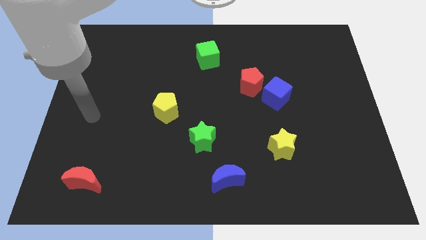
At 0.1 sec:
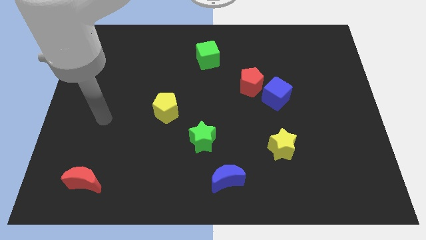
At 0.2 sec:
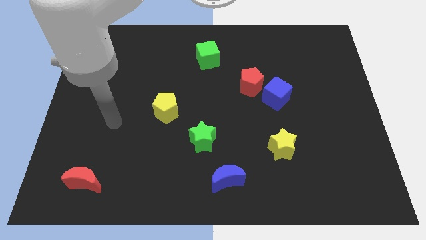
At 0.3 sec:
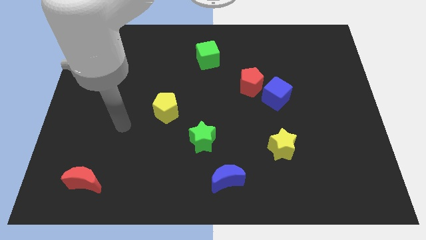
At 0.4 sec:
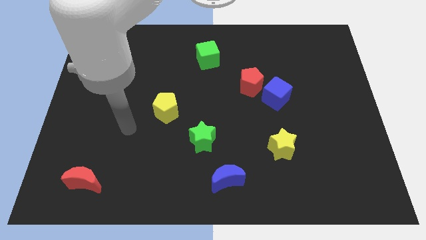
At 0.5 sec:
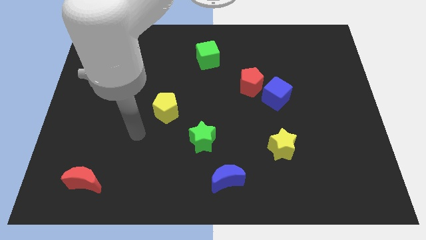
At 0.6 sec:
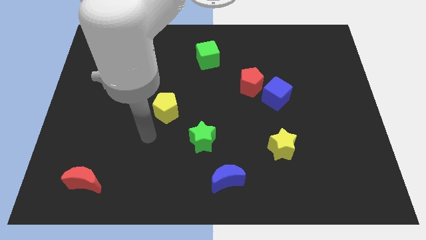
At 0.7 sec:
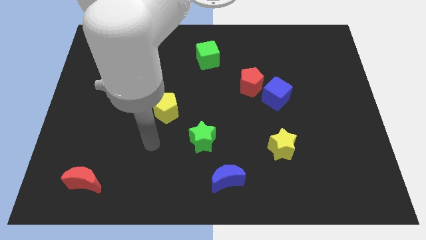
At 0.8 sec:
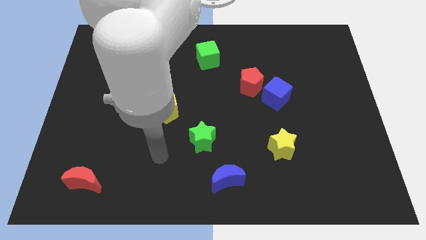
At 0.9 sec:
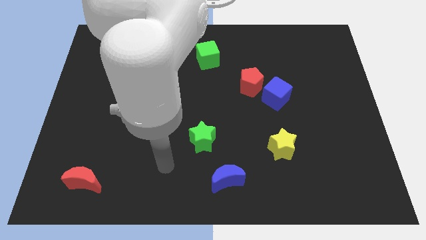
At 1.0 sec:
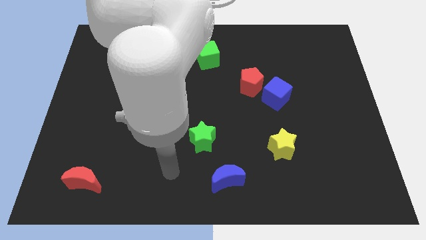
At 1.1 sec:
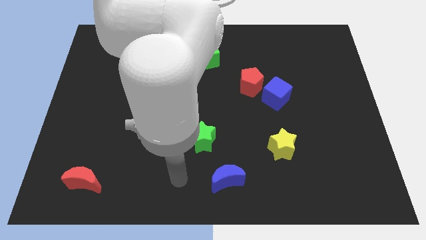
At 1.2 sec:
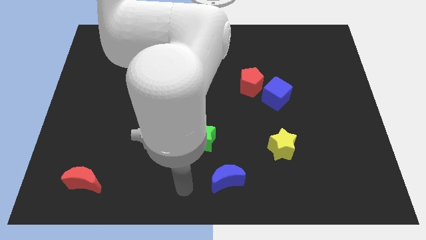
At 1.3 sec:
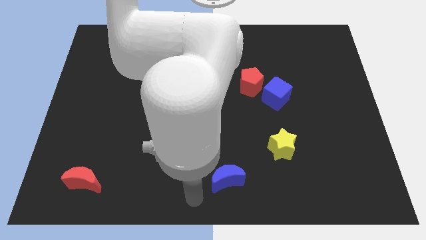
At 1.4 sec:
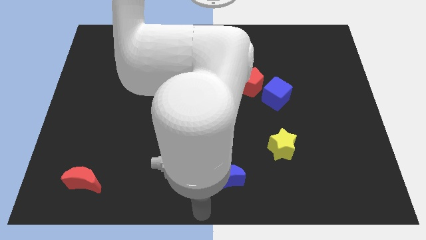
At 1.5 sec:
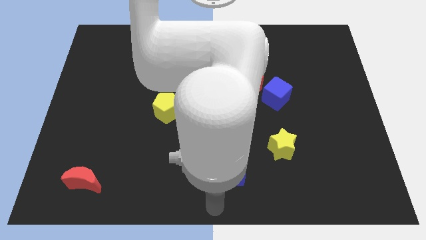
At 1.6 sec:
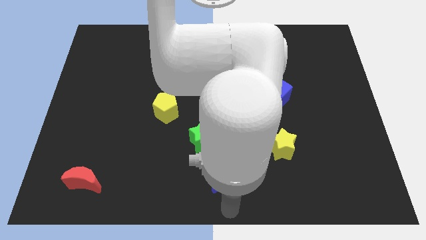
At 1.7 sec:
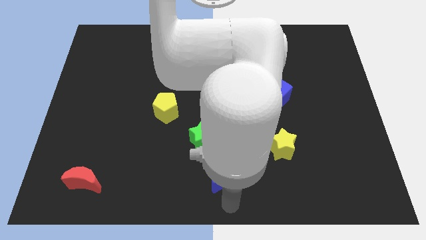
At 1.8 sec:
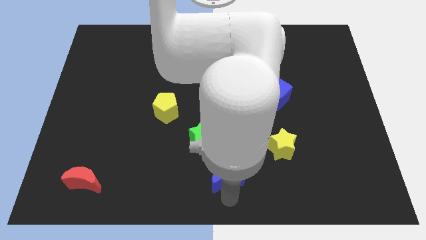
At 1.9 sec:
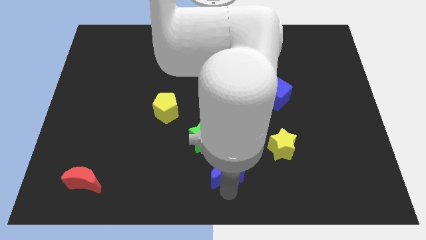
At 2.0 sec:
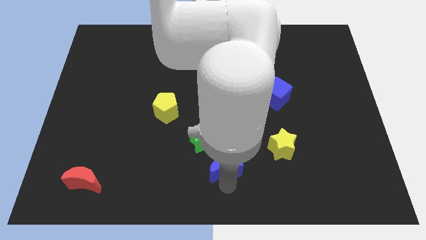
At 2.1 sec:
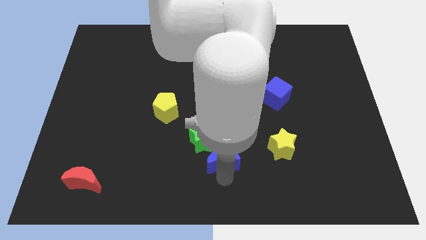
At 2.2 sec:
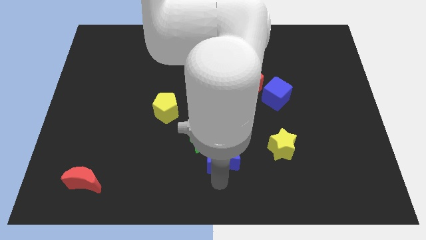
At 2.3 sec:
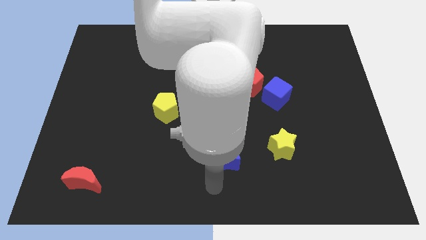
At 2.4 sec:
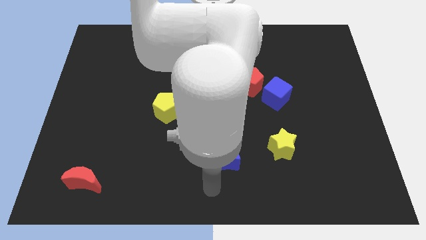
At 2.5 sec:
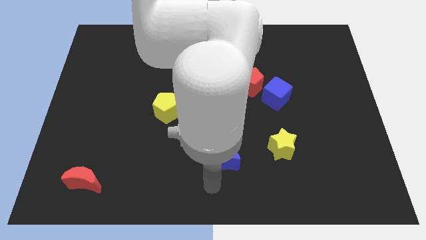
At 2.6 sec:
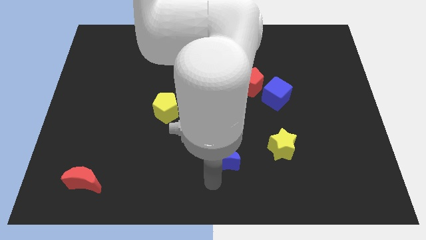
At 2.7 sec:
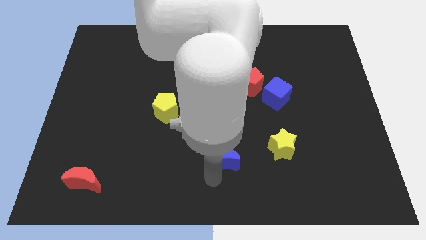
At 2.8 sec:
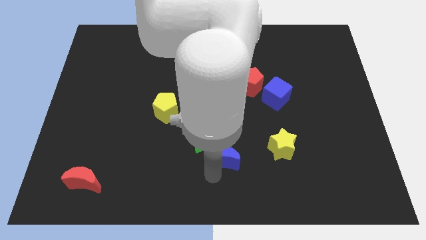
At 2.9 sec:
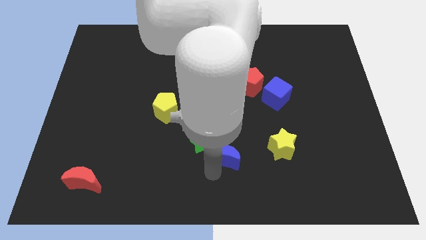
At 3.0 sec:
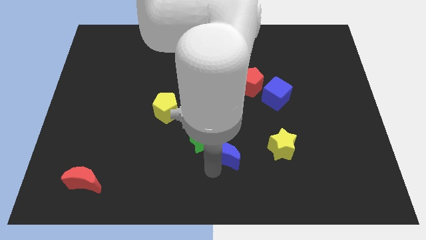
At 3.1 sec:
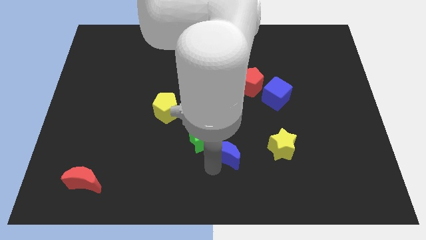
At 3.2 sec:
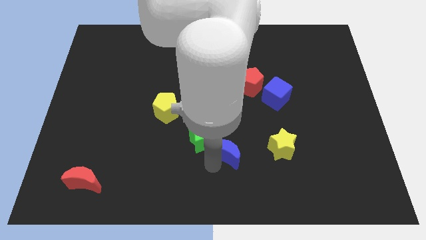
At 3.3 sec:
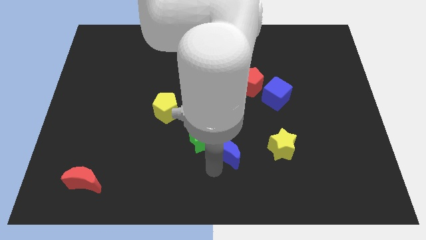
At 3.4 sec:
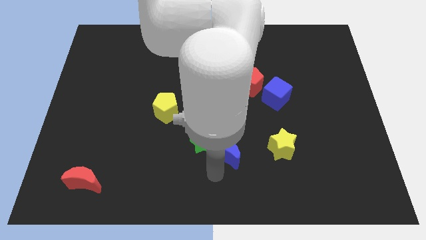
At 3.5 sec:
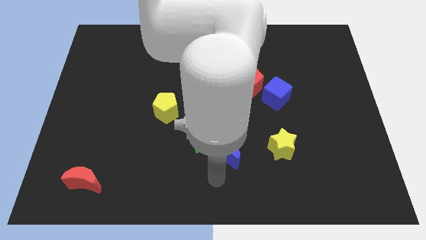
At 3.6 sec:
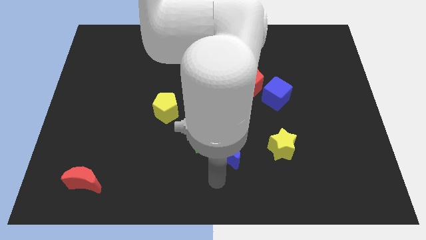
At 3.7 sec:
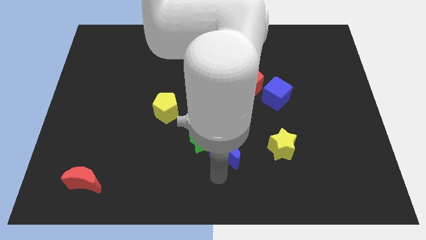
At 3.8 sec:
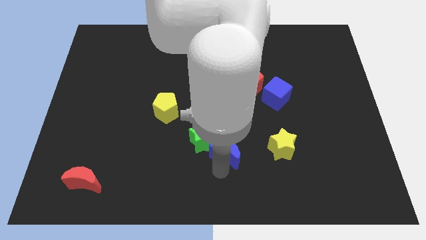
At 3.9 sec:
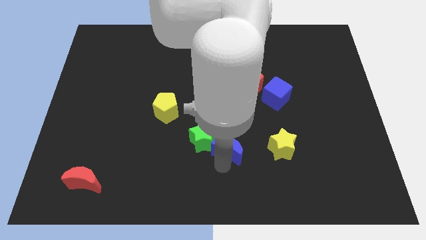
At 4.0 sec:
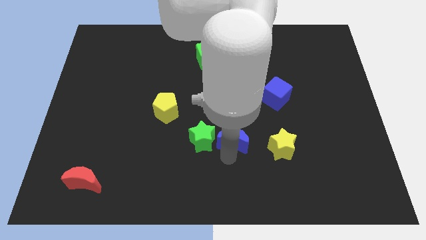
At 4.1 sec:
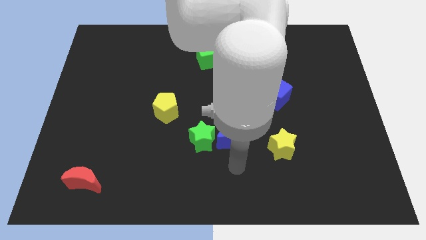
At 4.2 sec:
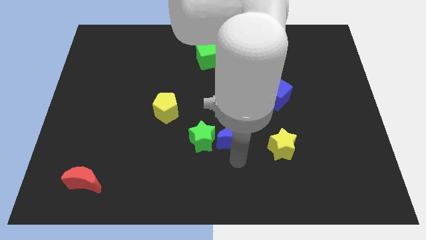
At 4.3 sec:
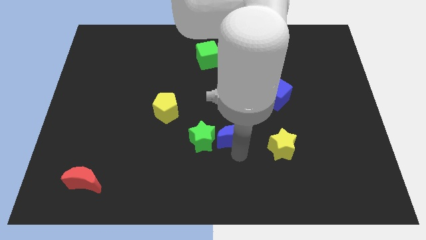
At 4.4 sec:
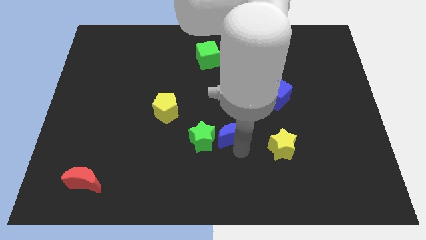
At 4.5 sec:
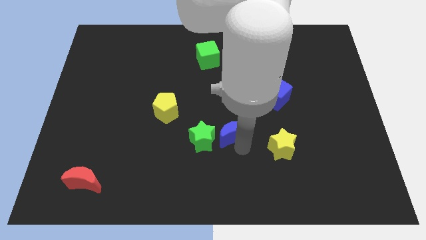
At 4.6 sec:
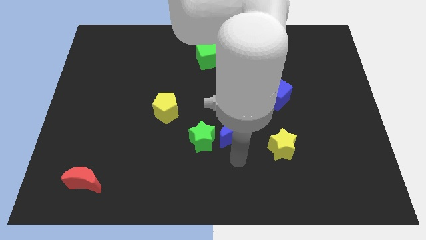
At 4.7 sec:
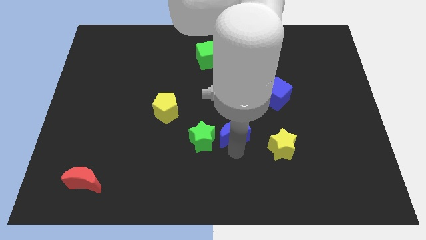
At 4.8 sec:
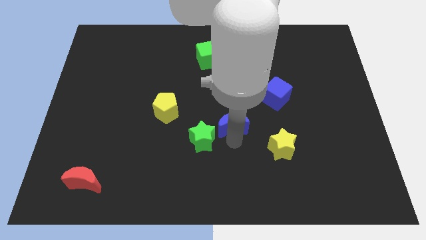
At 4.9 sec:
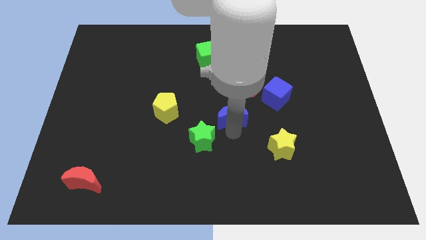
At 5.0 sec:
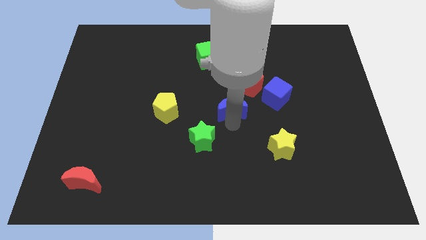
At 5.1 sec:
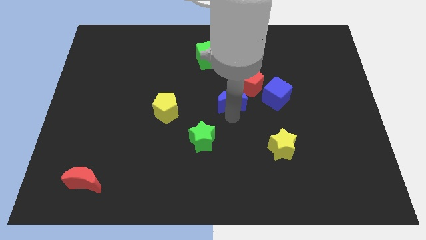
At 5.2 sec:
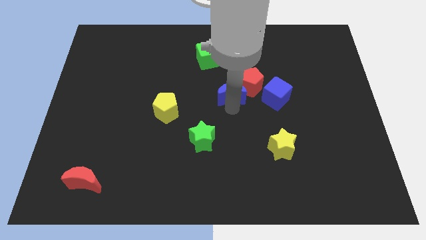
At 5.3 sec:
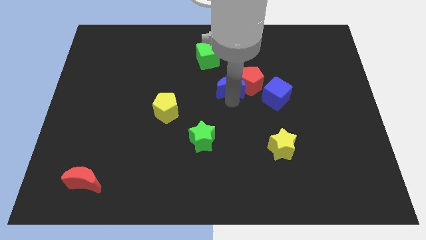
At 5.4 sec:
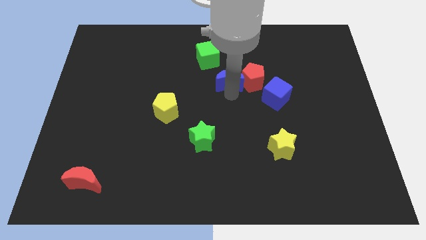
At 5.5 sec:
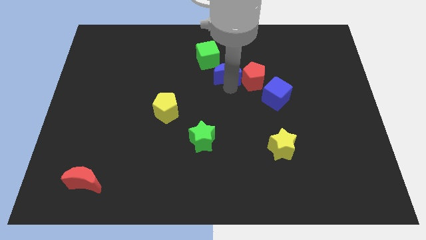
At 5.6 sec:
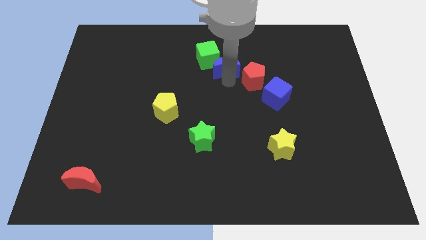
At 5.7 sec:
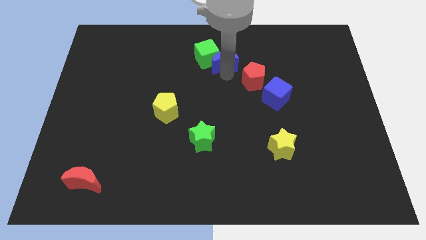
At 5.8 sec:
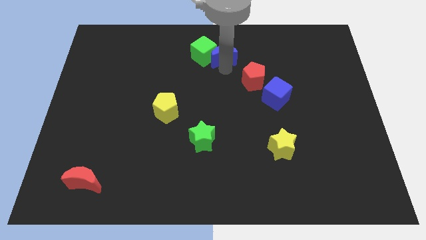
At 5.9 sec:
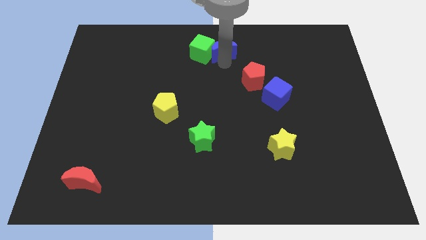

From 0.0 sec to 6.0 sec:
slide the blue moon to the top side
